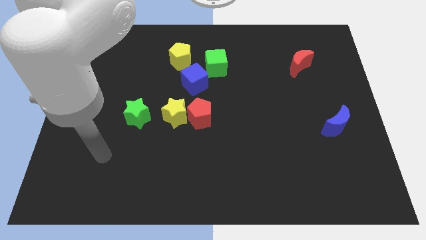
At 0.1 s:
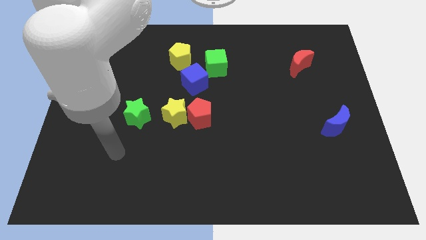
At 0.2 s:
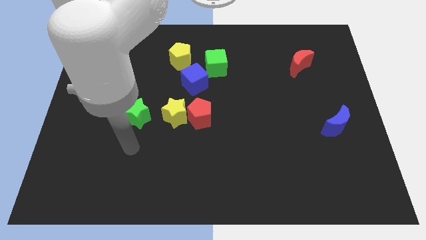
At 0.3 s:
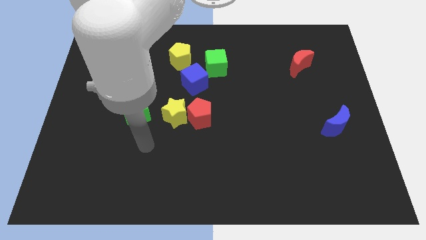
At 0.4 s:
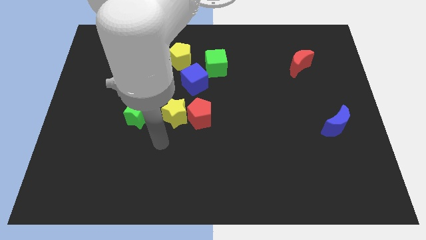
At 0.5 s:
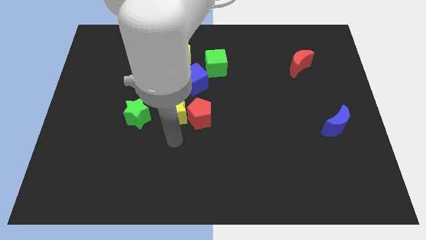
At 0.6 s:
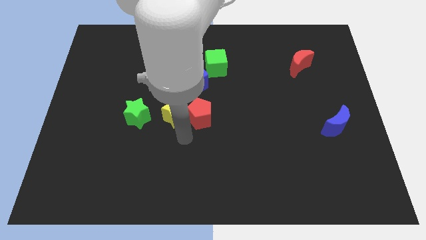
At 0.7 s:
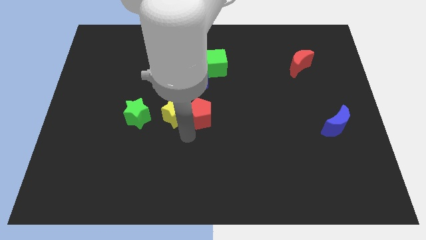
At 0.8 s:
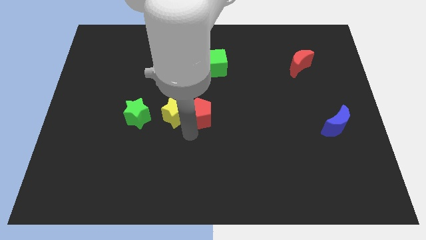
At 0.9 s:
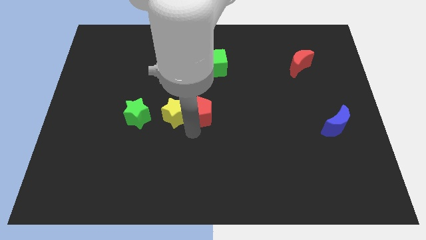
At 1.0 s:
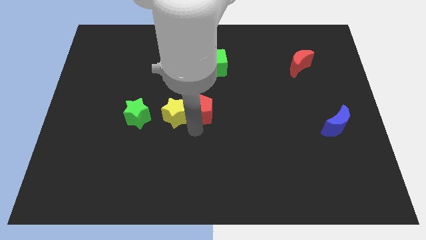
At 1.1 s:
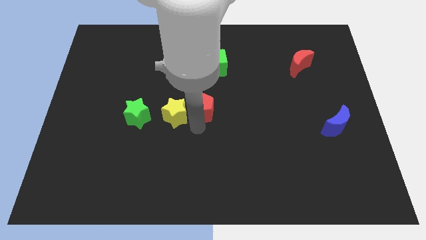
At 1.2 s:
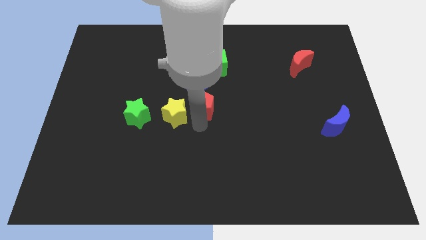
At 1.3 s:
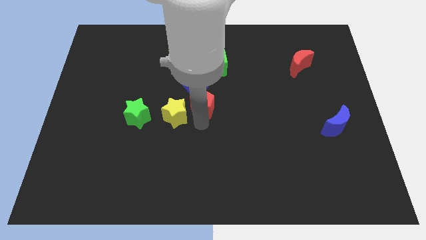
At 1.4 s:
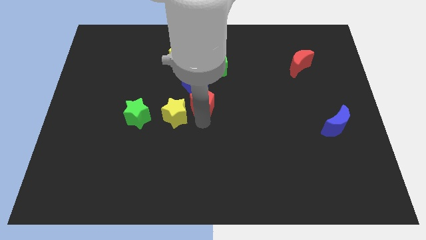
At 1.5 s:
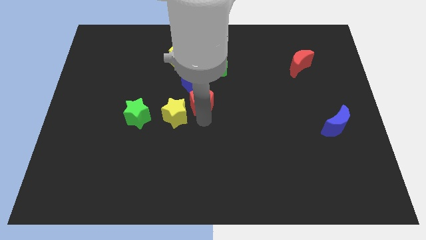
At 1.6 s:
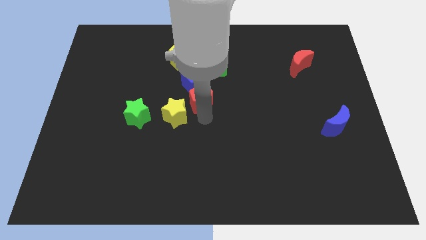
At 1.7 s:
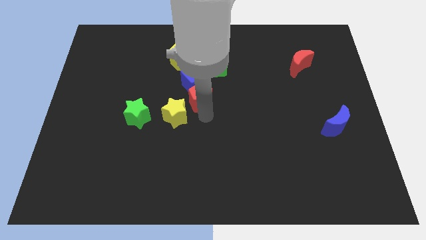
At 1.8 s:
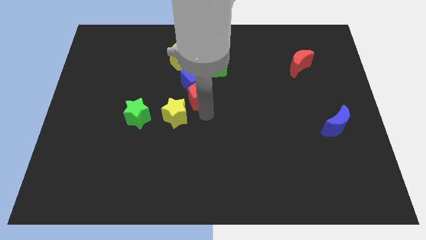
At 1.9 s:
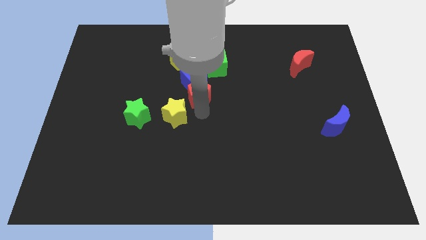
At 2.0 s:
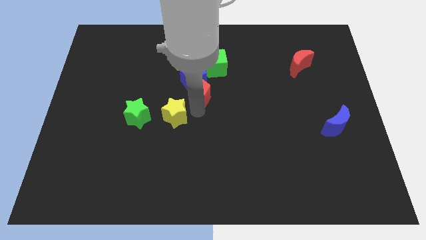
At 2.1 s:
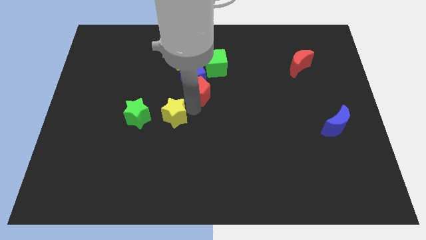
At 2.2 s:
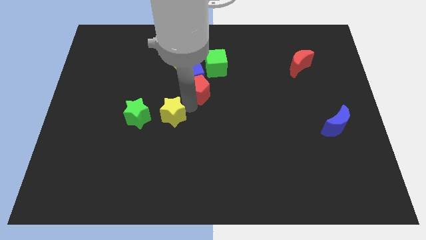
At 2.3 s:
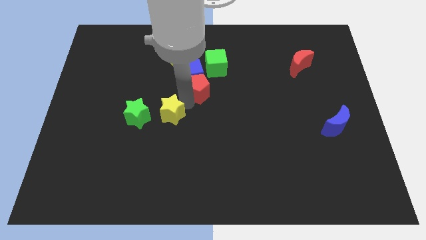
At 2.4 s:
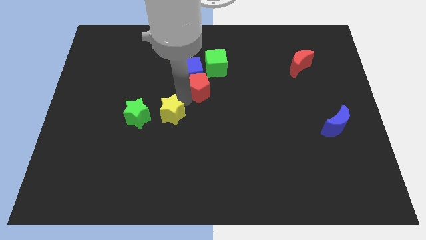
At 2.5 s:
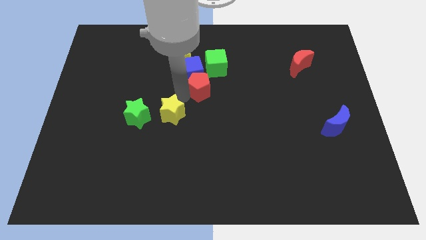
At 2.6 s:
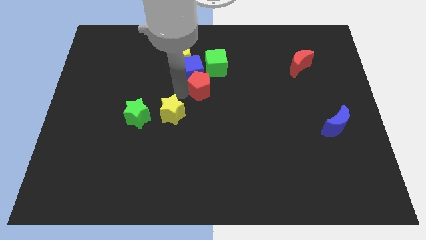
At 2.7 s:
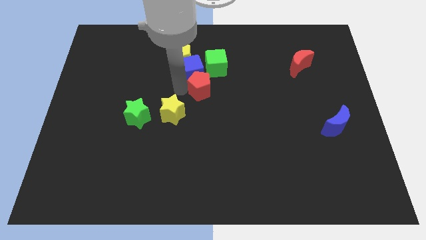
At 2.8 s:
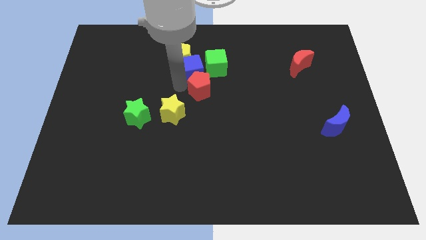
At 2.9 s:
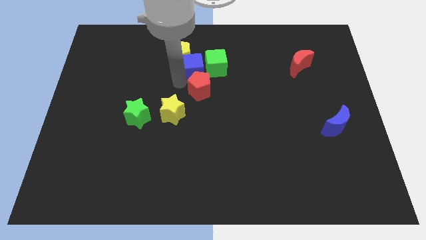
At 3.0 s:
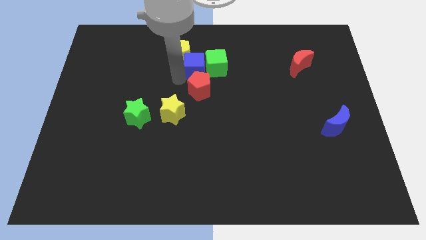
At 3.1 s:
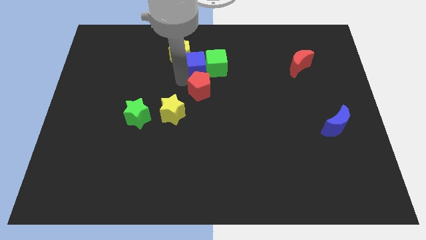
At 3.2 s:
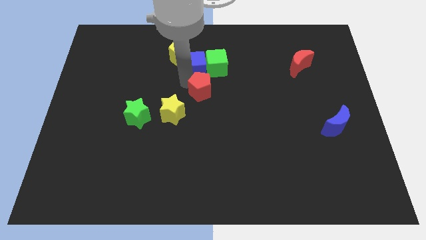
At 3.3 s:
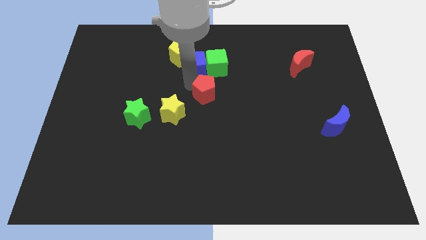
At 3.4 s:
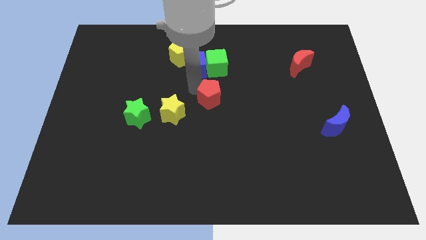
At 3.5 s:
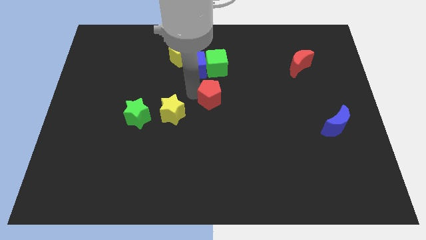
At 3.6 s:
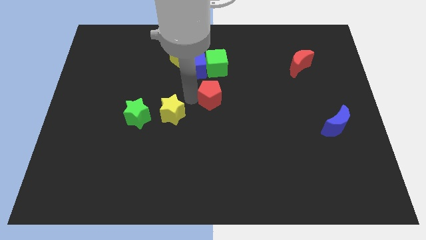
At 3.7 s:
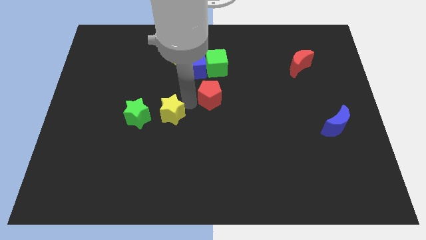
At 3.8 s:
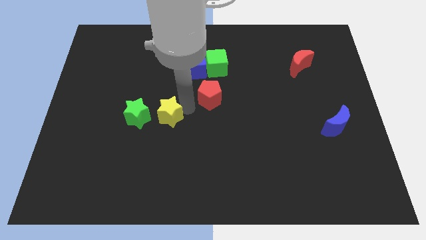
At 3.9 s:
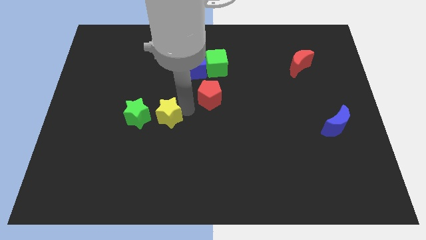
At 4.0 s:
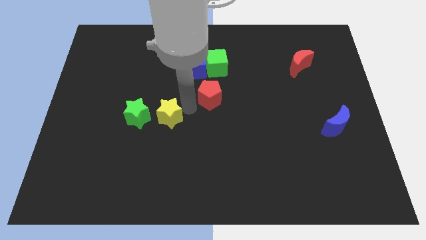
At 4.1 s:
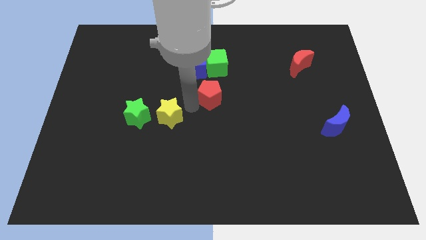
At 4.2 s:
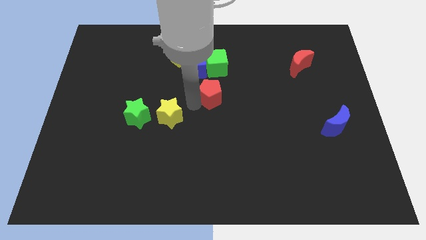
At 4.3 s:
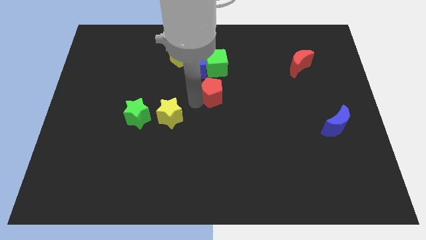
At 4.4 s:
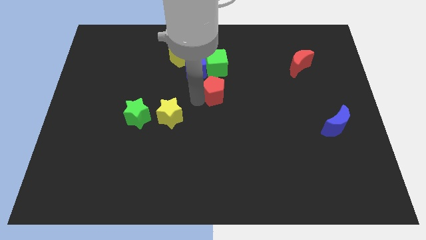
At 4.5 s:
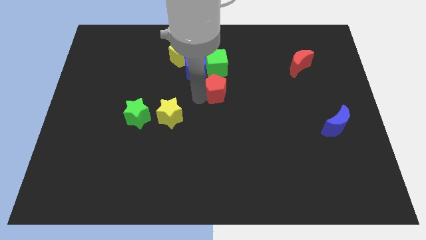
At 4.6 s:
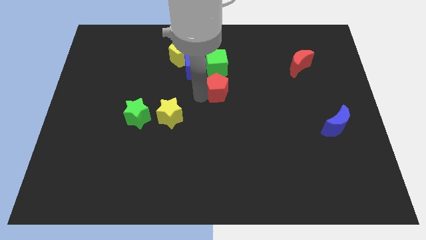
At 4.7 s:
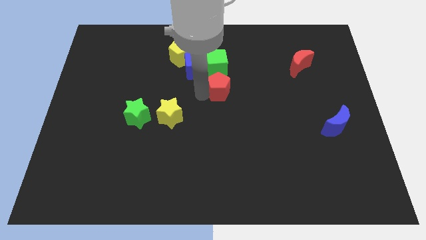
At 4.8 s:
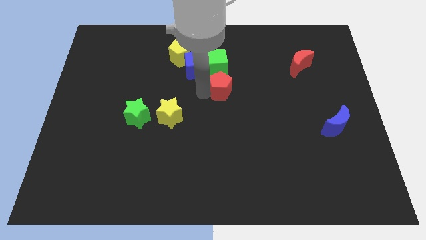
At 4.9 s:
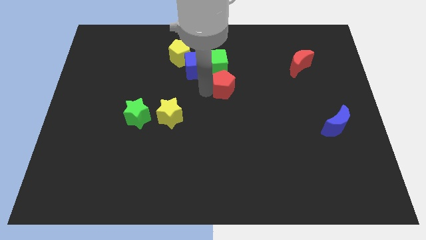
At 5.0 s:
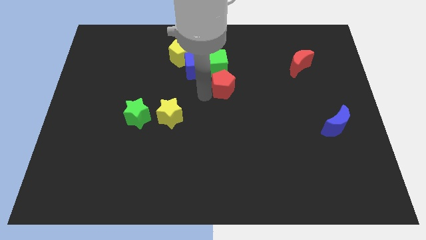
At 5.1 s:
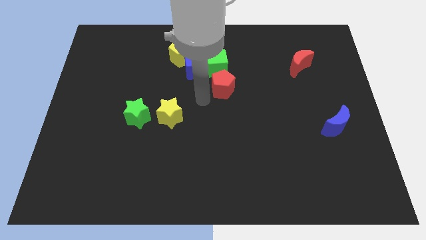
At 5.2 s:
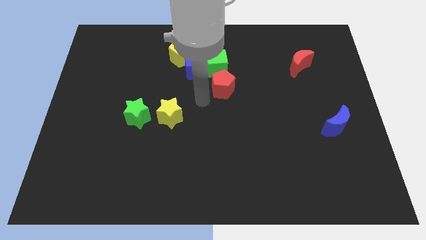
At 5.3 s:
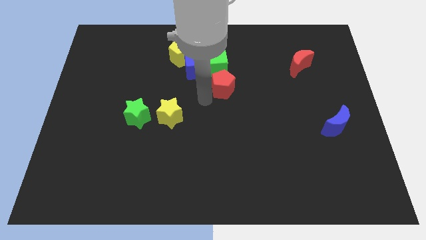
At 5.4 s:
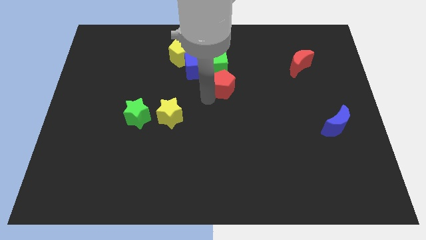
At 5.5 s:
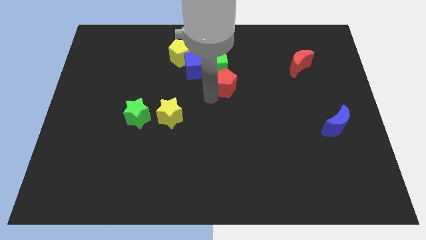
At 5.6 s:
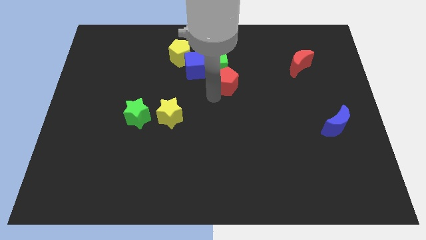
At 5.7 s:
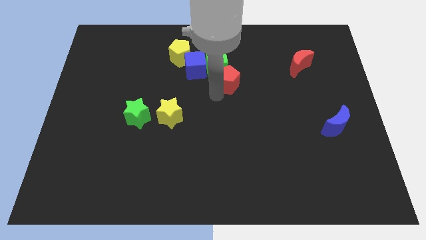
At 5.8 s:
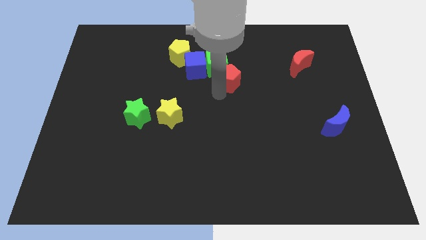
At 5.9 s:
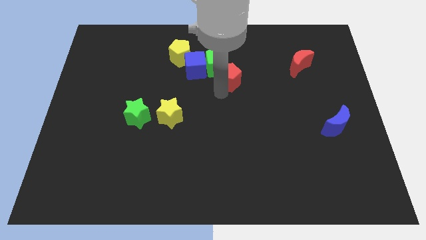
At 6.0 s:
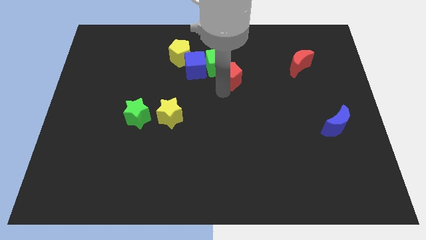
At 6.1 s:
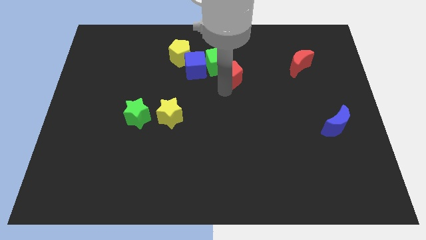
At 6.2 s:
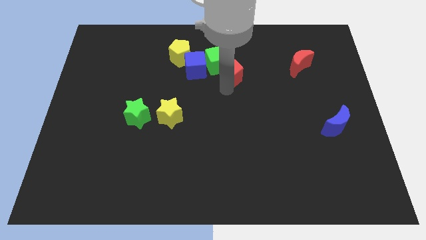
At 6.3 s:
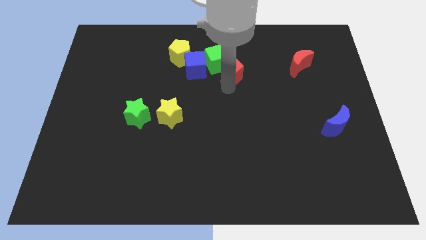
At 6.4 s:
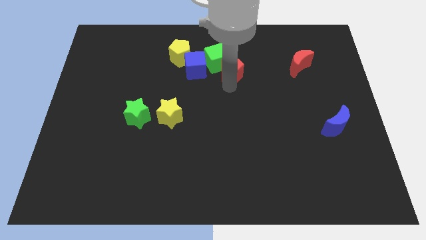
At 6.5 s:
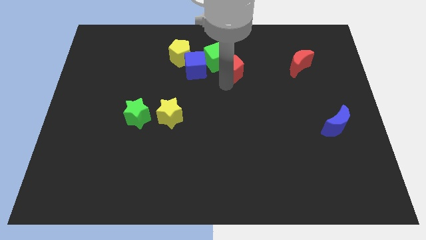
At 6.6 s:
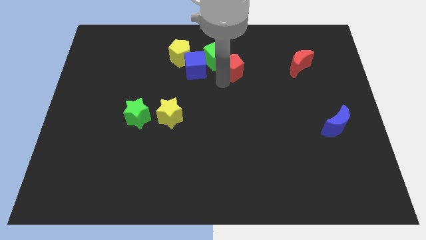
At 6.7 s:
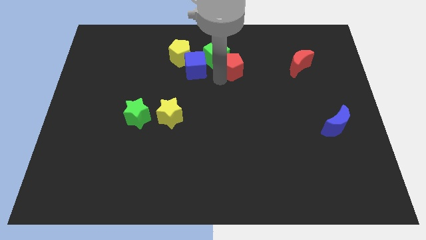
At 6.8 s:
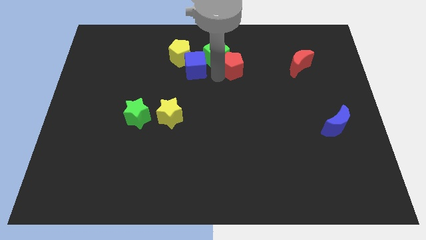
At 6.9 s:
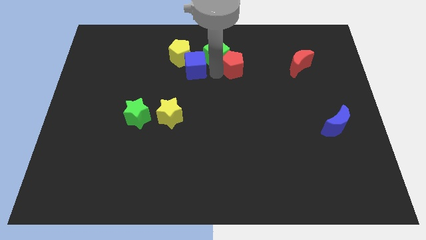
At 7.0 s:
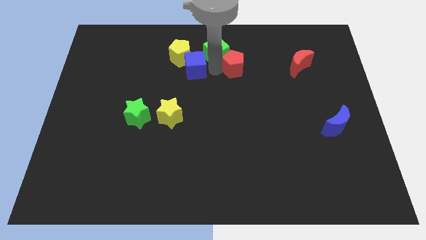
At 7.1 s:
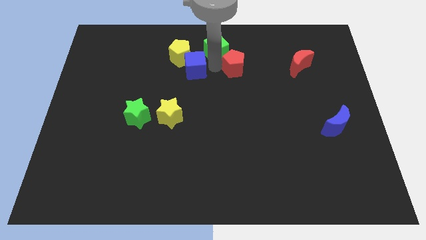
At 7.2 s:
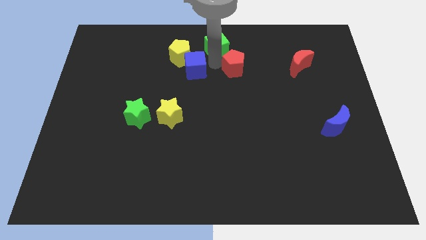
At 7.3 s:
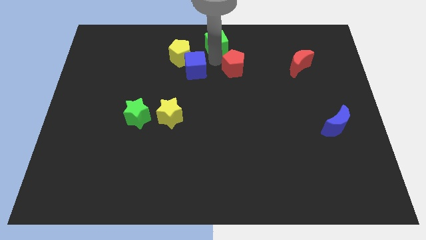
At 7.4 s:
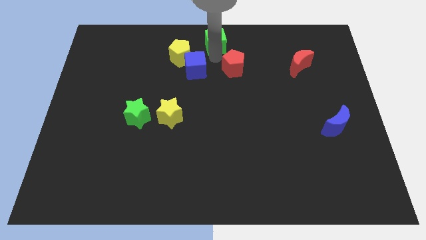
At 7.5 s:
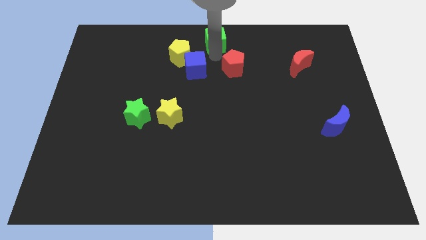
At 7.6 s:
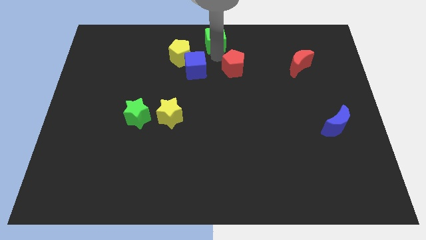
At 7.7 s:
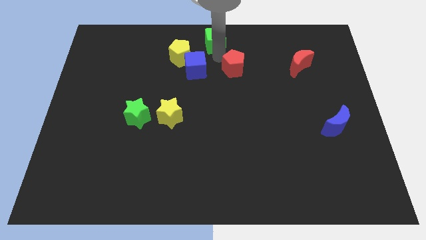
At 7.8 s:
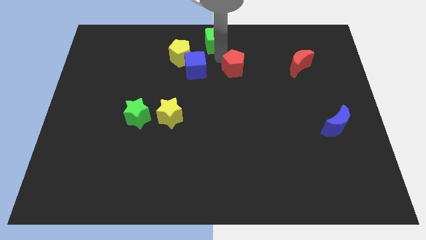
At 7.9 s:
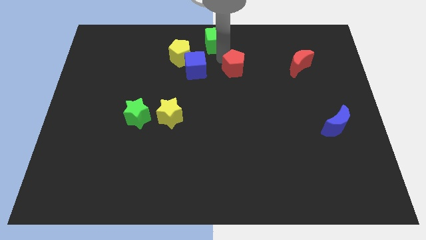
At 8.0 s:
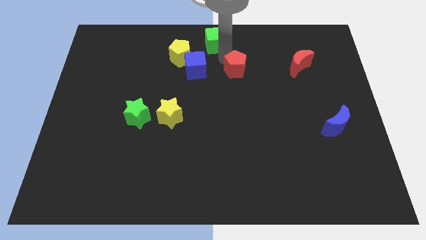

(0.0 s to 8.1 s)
slide the red pentagon just left of the red moon

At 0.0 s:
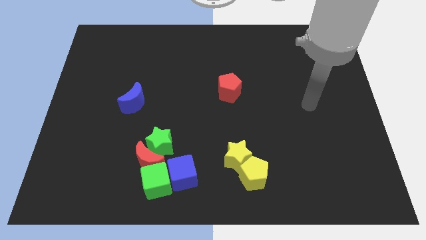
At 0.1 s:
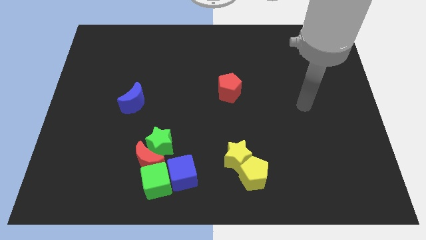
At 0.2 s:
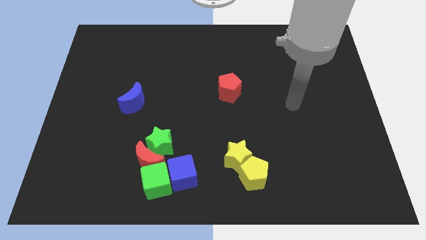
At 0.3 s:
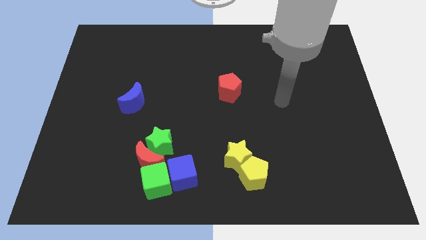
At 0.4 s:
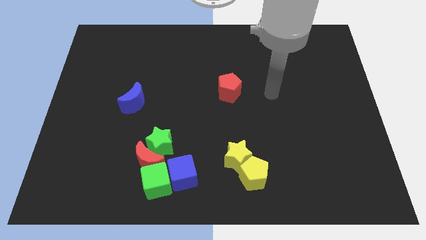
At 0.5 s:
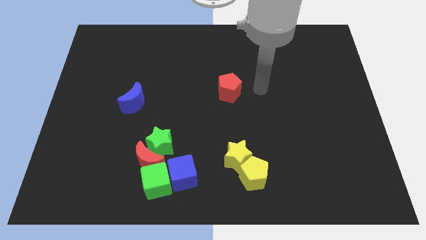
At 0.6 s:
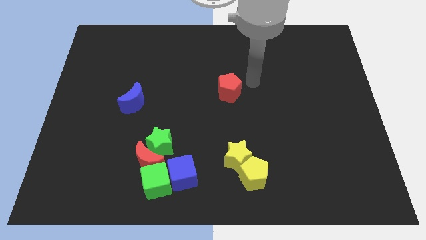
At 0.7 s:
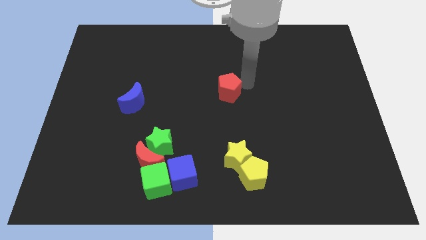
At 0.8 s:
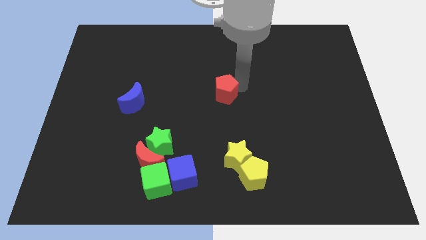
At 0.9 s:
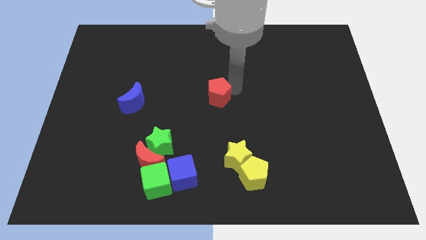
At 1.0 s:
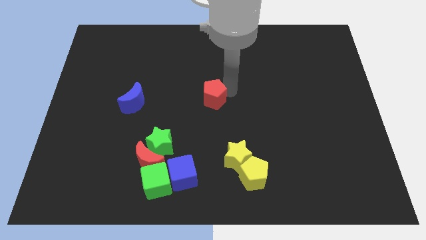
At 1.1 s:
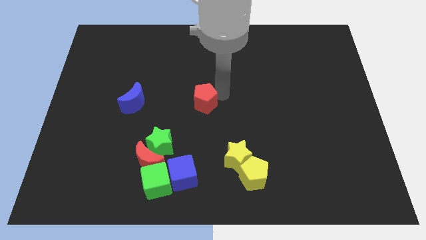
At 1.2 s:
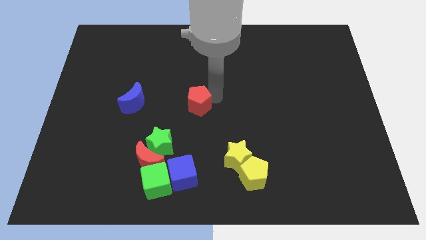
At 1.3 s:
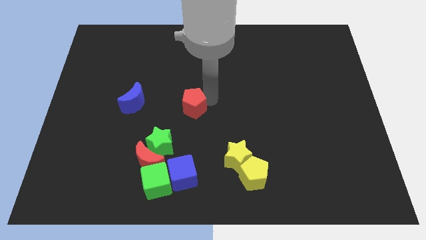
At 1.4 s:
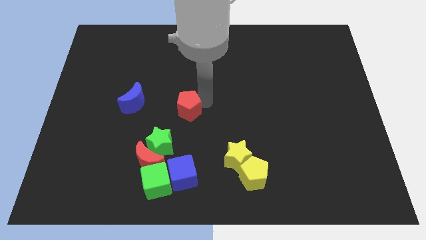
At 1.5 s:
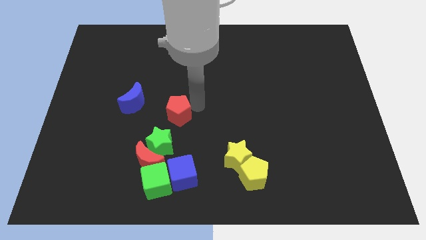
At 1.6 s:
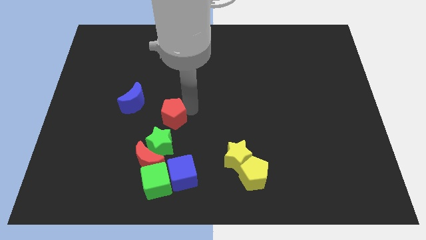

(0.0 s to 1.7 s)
slide the red pentagon to the top of the red moon
